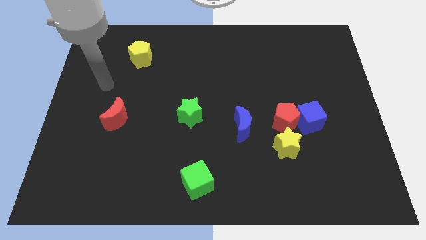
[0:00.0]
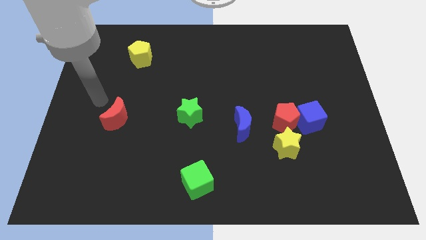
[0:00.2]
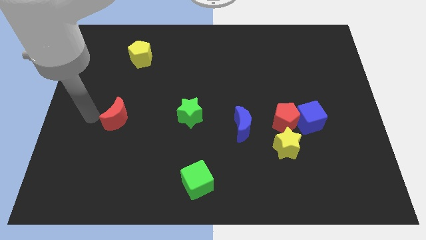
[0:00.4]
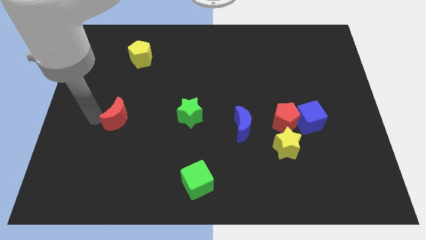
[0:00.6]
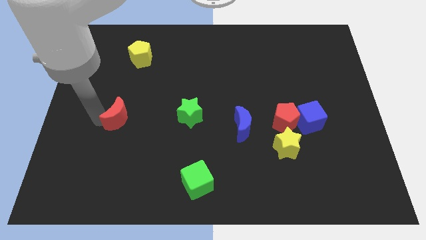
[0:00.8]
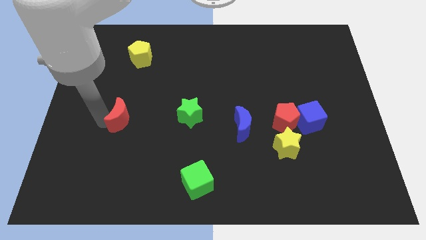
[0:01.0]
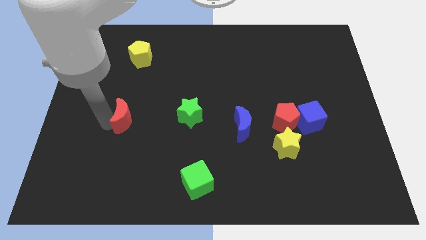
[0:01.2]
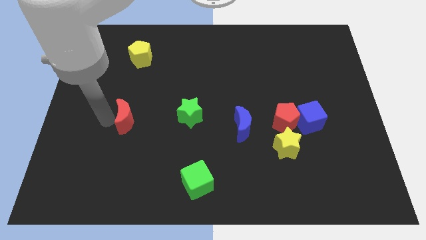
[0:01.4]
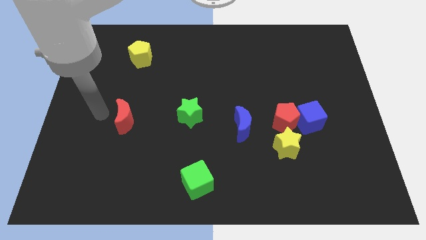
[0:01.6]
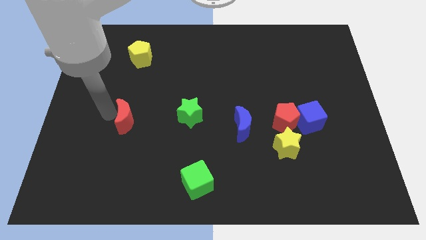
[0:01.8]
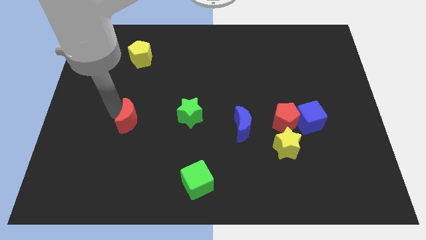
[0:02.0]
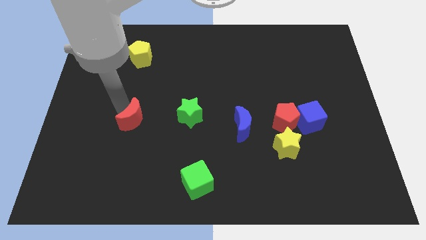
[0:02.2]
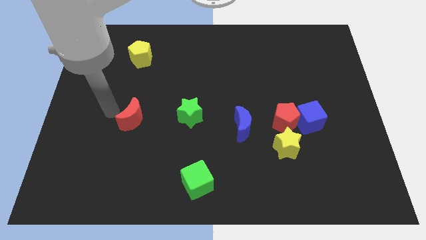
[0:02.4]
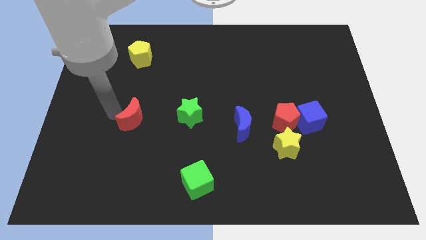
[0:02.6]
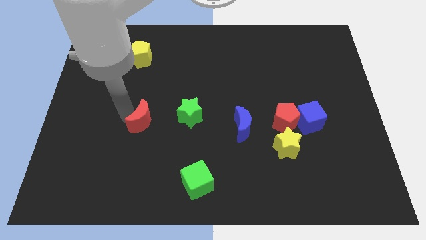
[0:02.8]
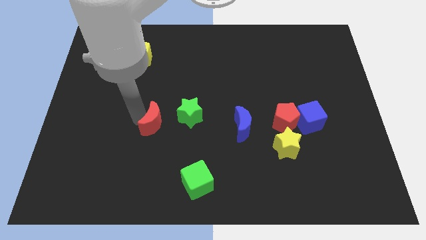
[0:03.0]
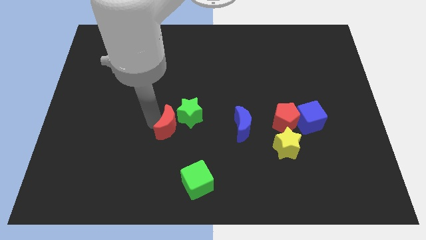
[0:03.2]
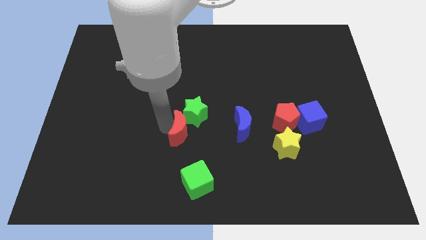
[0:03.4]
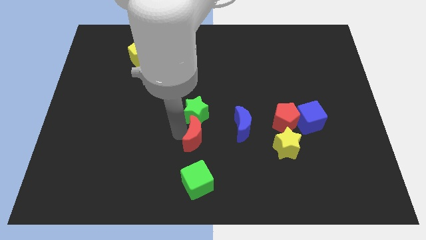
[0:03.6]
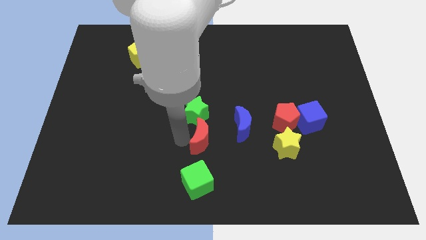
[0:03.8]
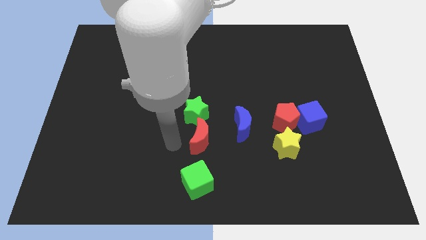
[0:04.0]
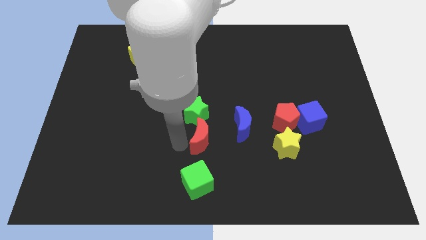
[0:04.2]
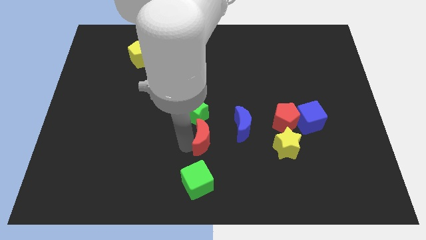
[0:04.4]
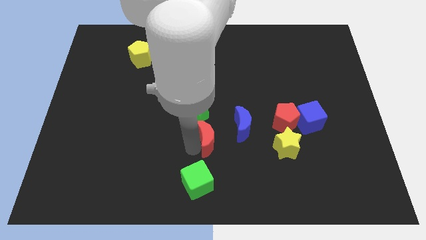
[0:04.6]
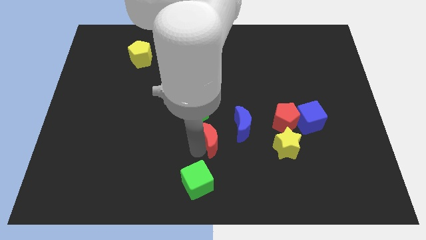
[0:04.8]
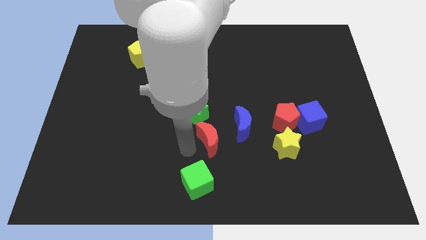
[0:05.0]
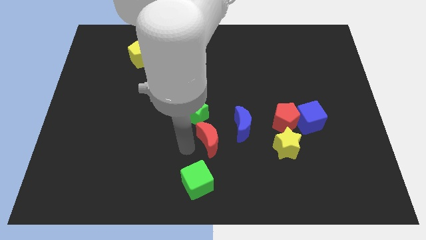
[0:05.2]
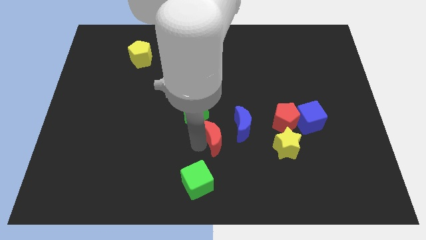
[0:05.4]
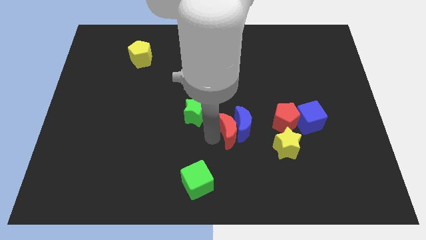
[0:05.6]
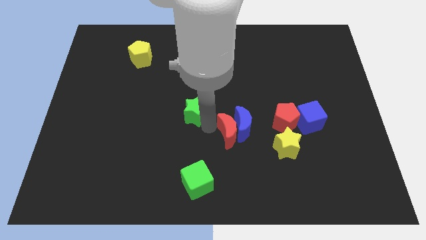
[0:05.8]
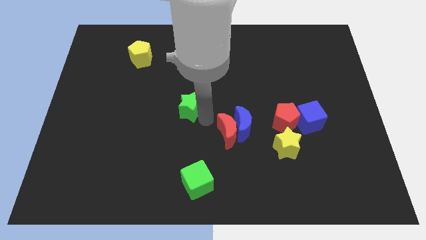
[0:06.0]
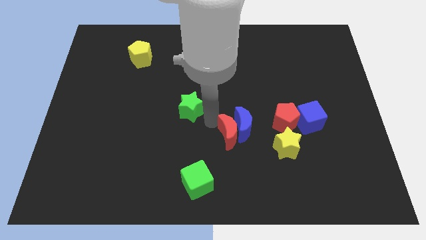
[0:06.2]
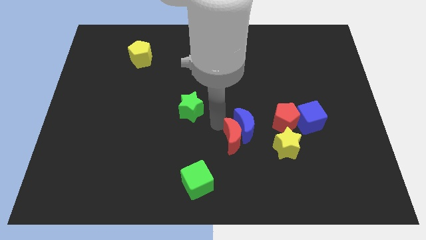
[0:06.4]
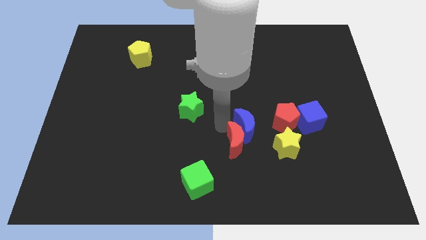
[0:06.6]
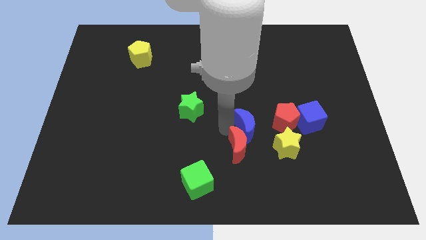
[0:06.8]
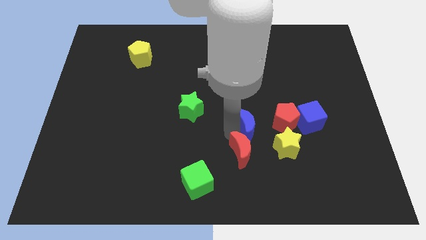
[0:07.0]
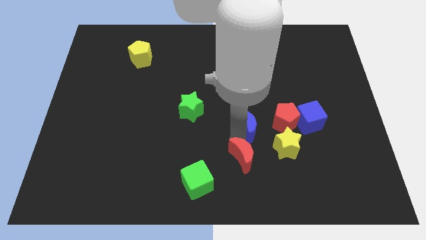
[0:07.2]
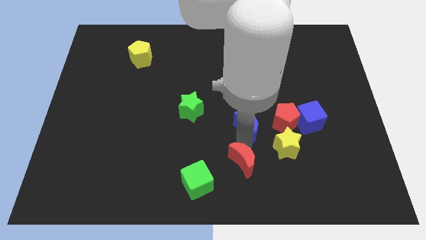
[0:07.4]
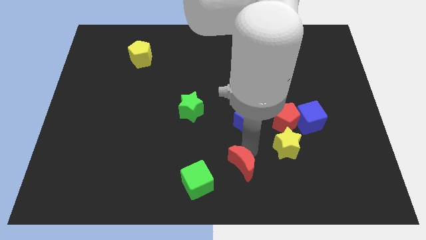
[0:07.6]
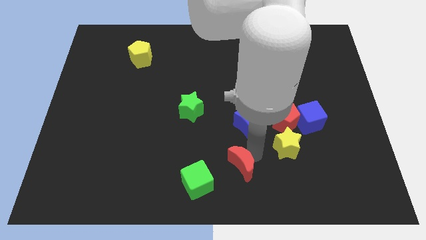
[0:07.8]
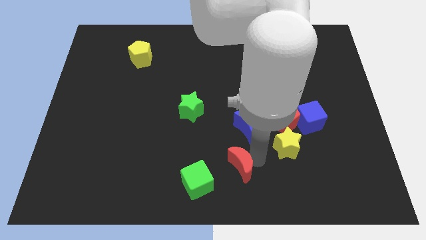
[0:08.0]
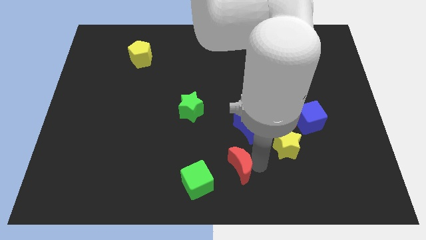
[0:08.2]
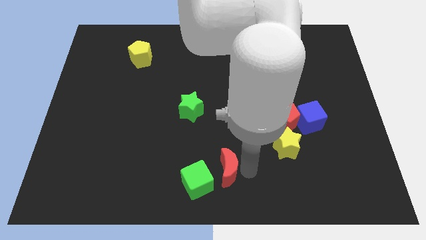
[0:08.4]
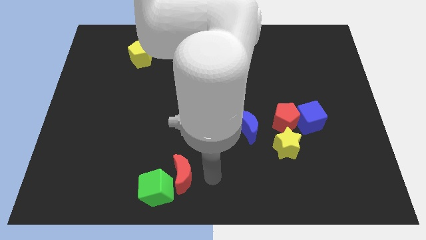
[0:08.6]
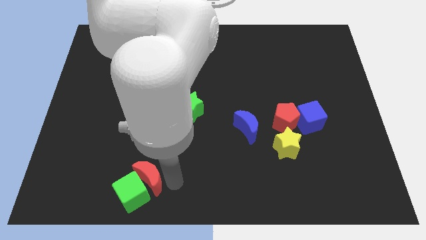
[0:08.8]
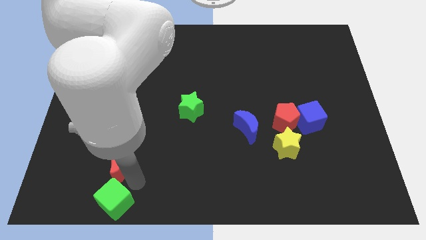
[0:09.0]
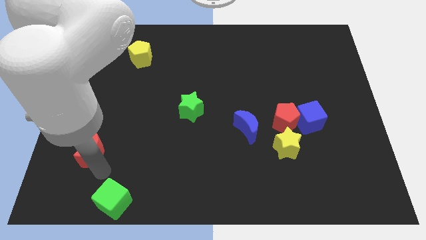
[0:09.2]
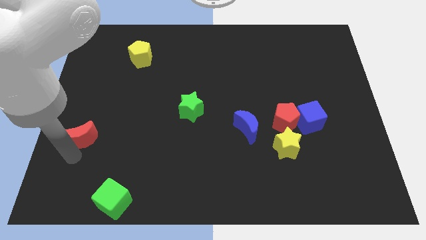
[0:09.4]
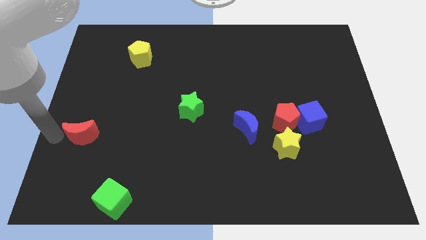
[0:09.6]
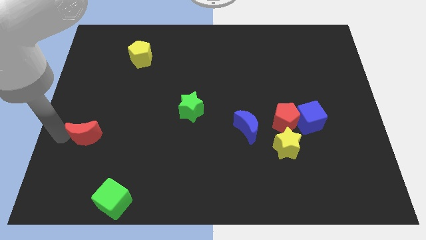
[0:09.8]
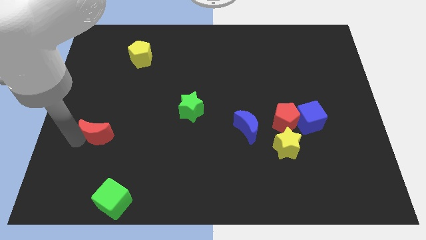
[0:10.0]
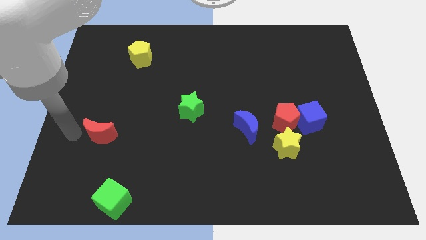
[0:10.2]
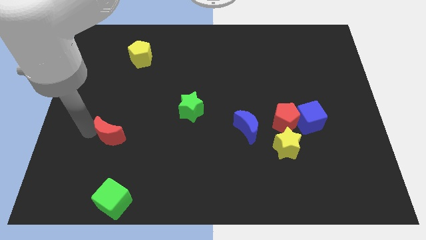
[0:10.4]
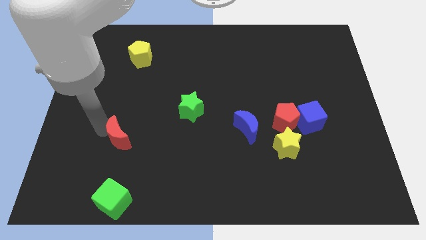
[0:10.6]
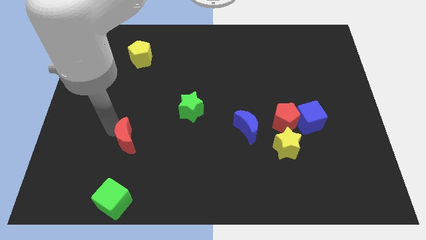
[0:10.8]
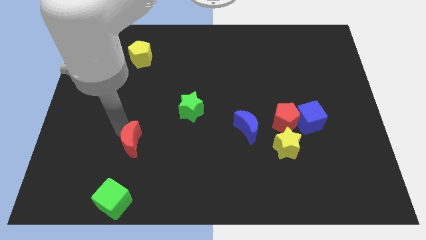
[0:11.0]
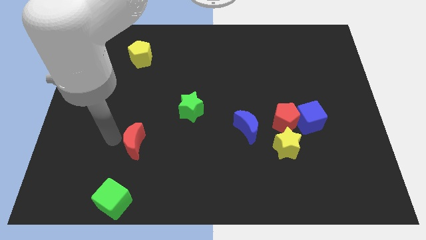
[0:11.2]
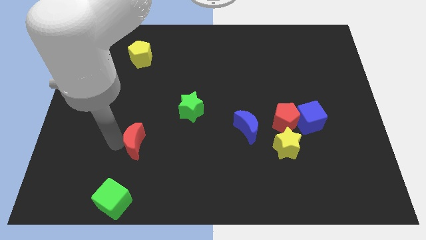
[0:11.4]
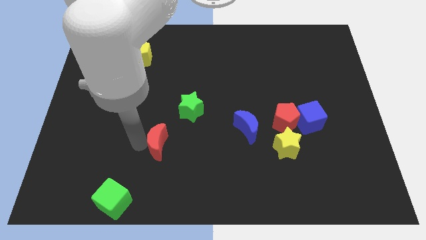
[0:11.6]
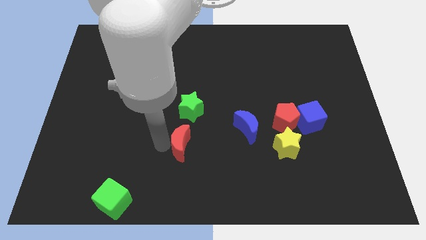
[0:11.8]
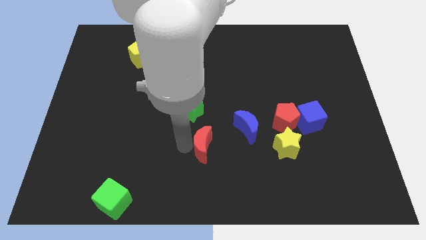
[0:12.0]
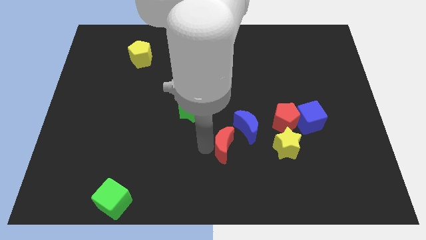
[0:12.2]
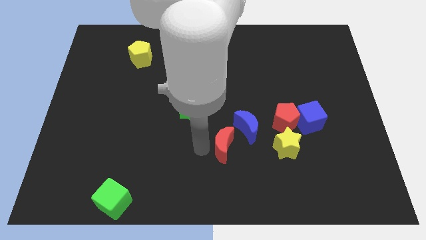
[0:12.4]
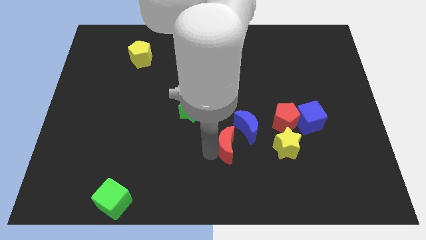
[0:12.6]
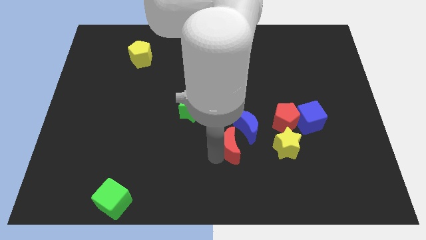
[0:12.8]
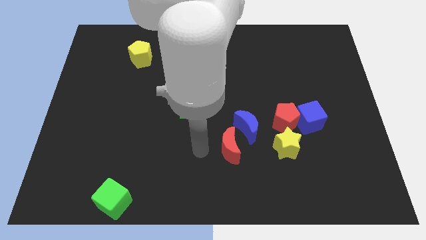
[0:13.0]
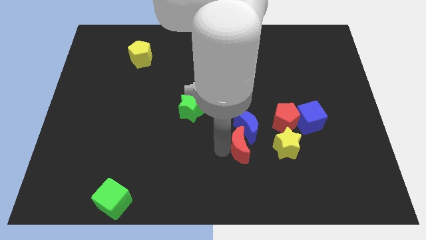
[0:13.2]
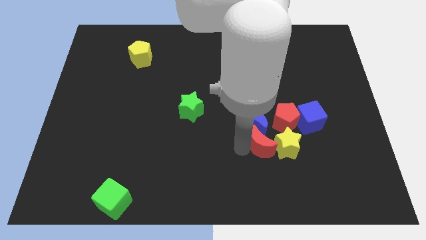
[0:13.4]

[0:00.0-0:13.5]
move the red moon to the yellow star
